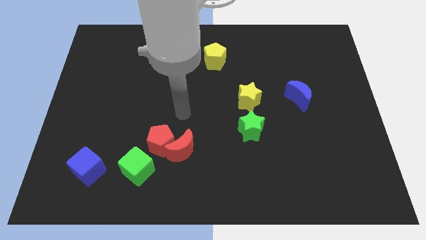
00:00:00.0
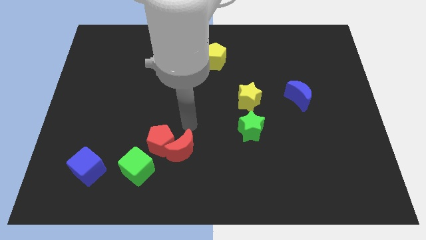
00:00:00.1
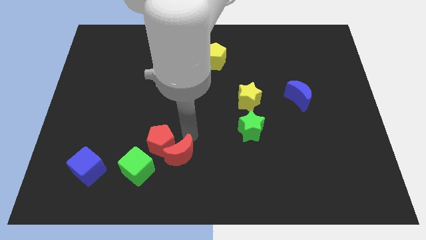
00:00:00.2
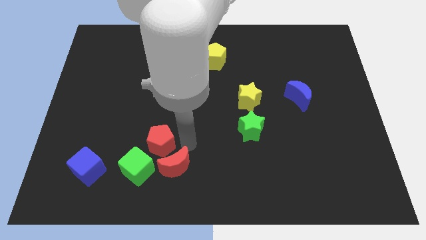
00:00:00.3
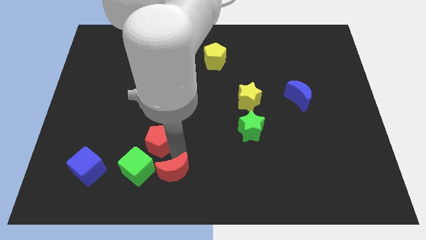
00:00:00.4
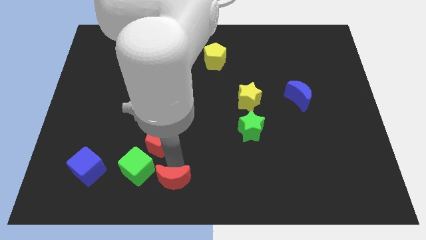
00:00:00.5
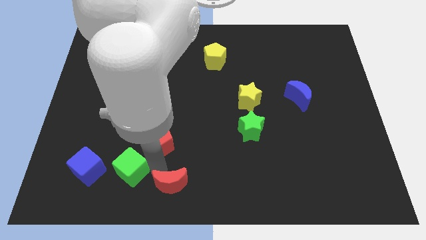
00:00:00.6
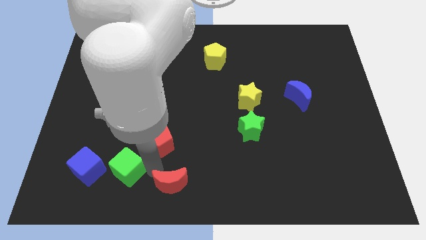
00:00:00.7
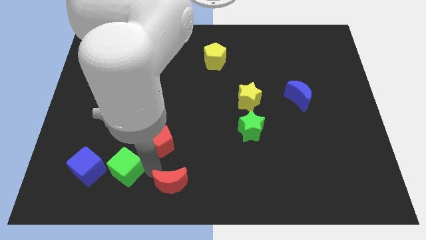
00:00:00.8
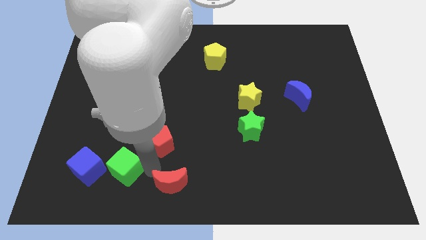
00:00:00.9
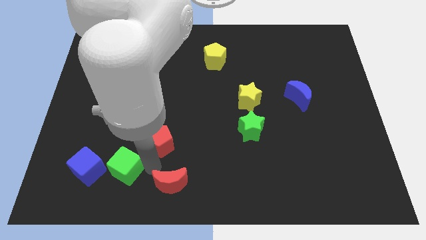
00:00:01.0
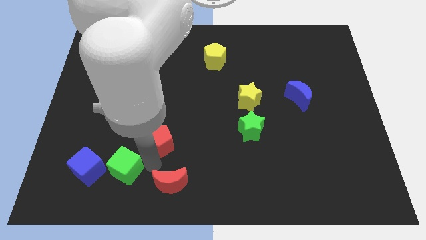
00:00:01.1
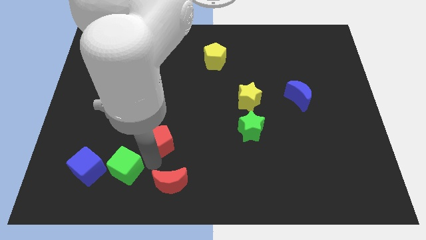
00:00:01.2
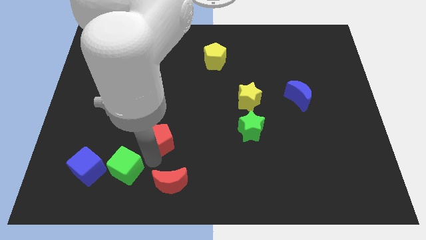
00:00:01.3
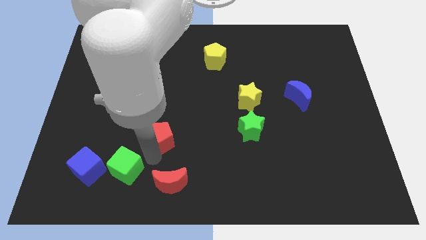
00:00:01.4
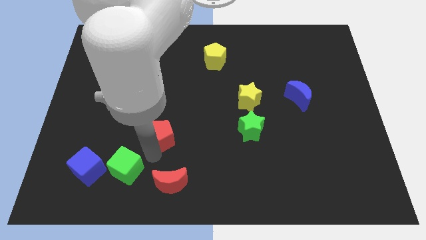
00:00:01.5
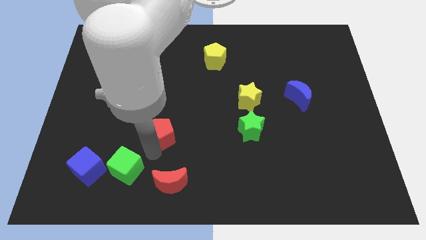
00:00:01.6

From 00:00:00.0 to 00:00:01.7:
pull the red pentagon apart from the red moon and green cube

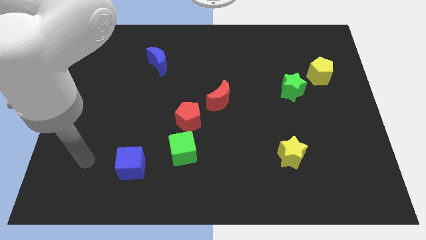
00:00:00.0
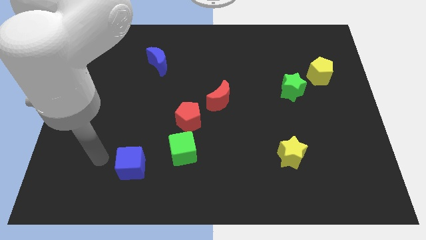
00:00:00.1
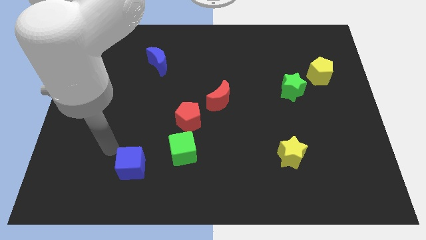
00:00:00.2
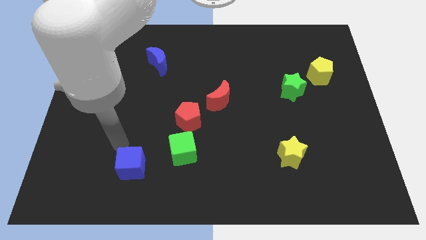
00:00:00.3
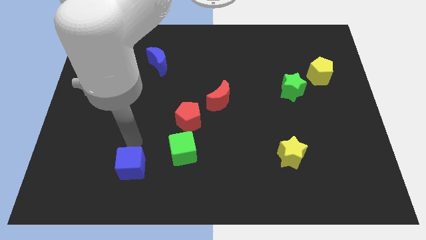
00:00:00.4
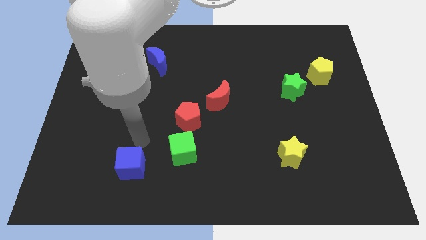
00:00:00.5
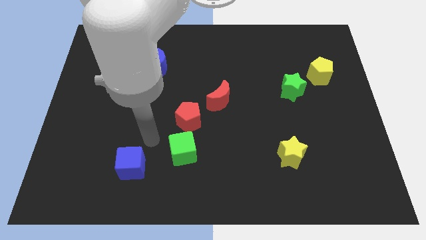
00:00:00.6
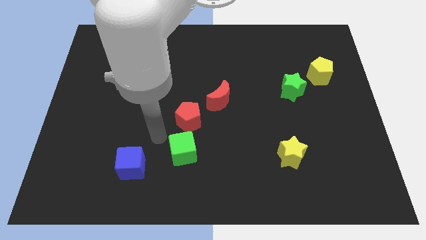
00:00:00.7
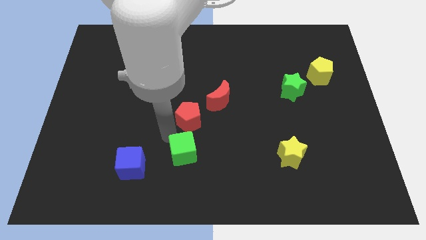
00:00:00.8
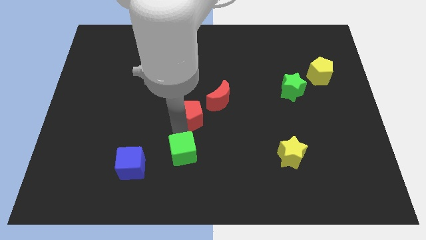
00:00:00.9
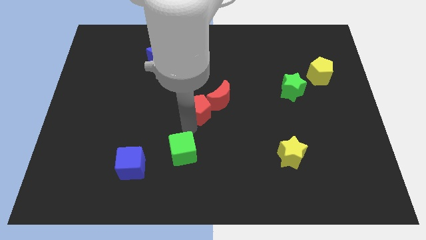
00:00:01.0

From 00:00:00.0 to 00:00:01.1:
pull the green cube apart from the red pentagon

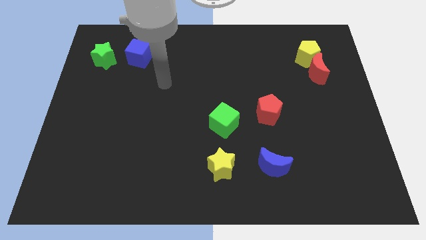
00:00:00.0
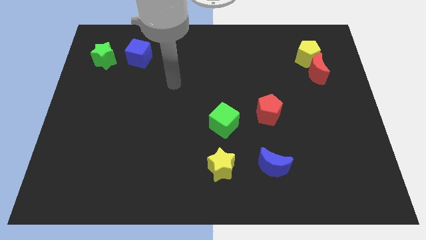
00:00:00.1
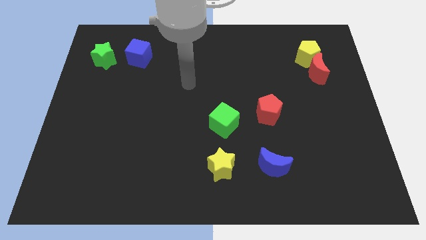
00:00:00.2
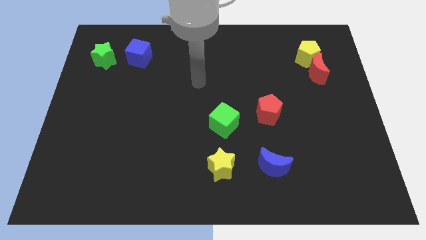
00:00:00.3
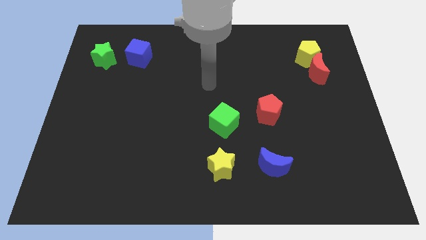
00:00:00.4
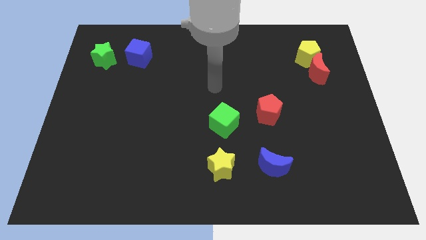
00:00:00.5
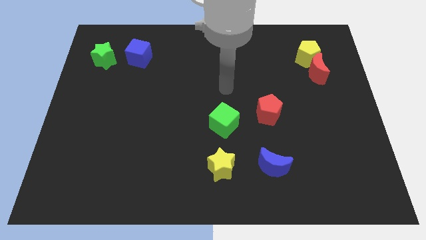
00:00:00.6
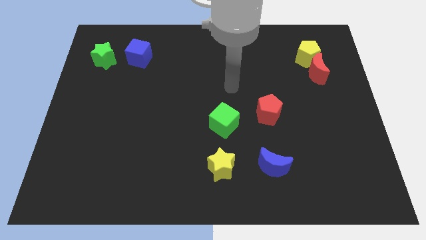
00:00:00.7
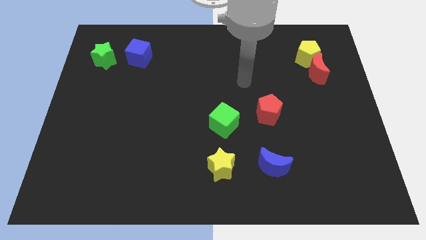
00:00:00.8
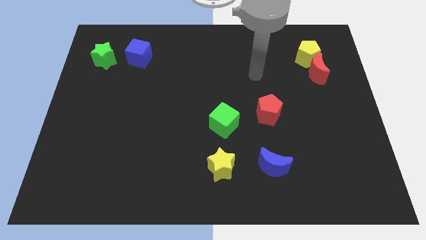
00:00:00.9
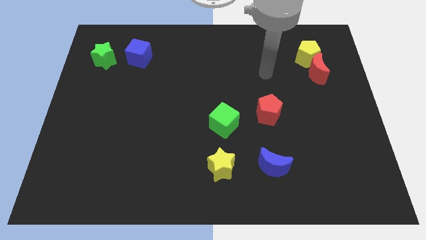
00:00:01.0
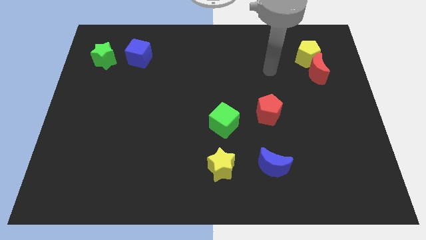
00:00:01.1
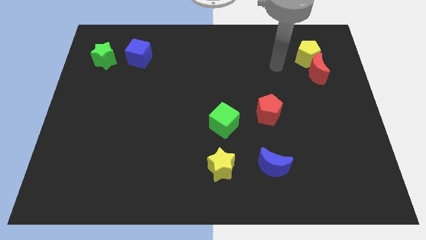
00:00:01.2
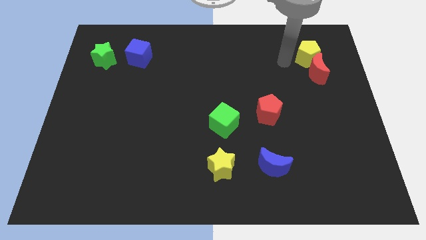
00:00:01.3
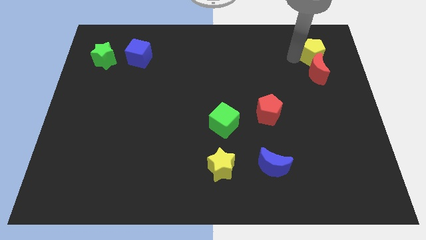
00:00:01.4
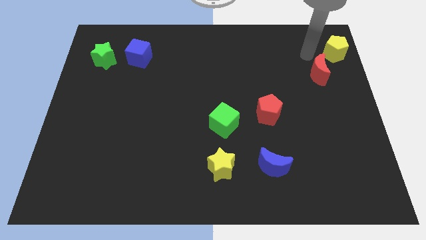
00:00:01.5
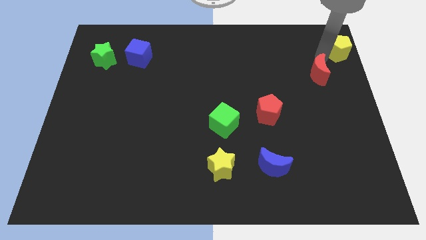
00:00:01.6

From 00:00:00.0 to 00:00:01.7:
pull the red moon apart from the yellow pentagon

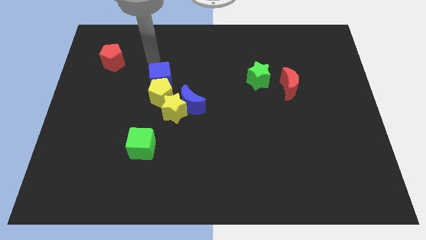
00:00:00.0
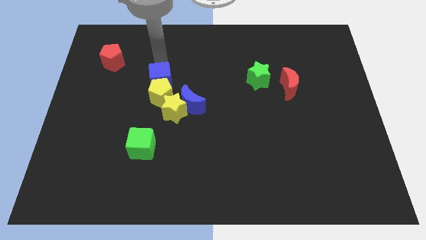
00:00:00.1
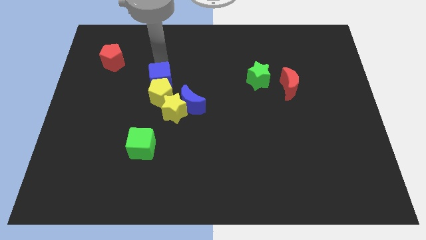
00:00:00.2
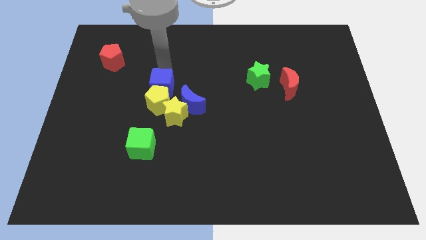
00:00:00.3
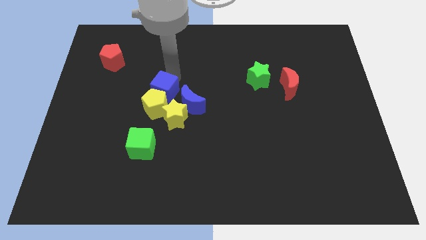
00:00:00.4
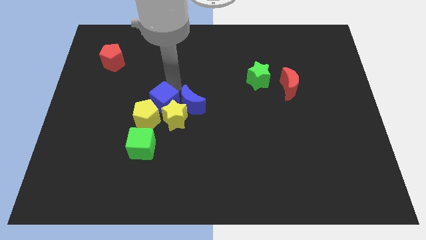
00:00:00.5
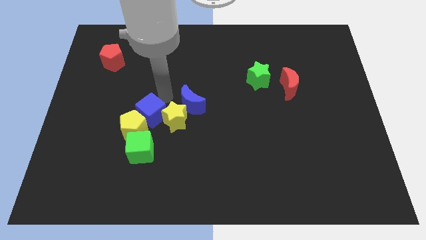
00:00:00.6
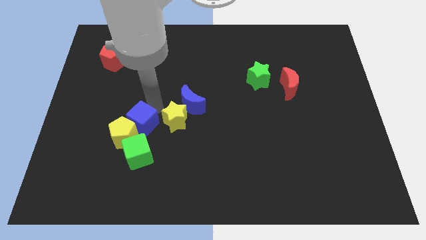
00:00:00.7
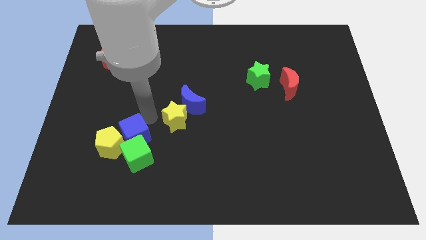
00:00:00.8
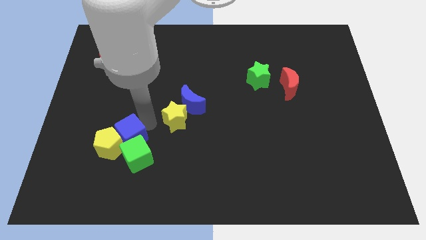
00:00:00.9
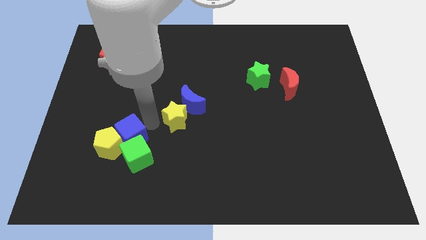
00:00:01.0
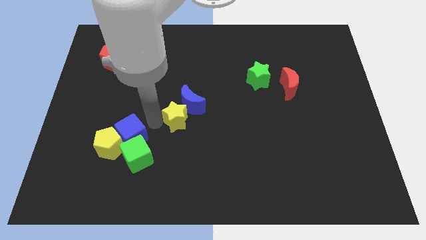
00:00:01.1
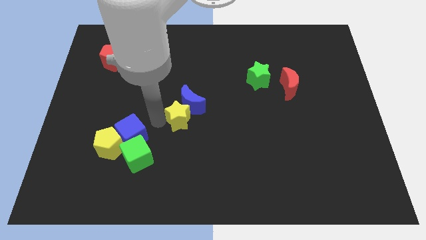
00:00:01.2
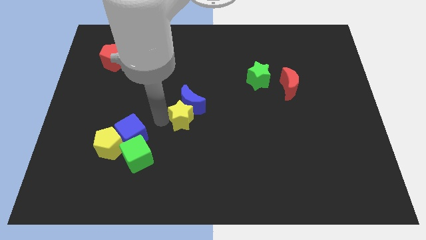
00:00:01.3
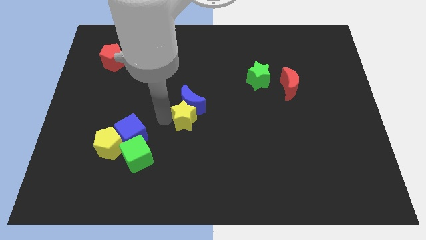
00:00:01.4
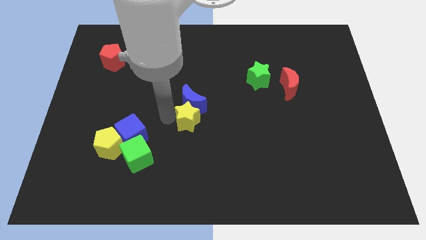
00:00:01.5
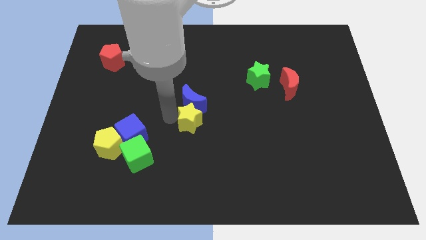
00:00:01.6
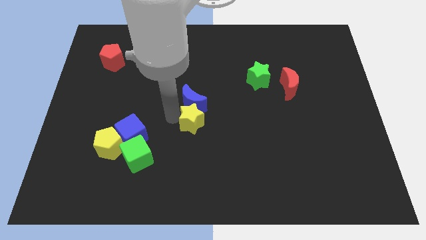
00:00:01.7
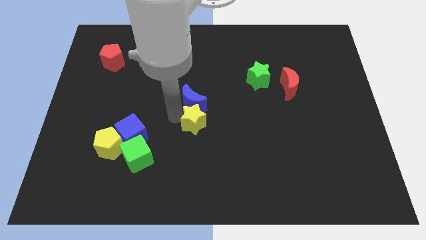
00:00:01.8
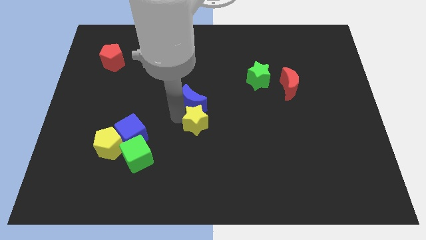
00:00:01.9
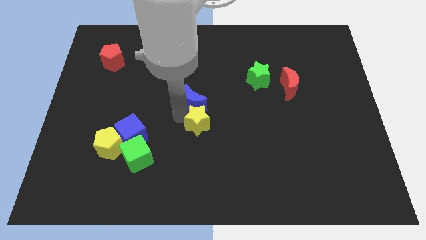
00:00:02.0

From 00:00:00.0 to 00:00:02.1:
move the yellow star away from the blue moon and yellow pentagon

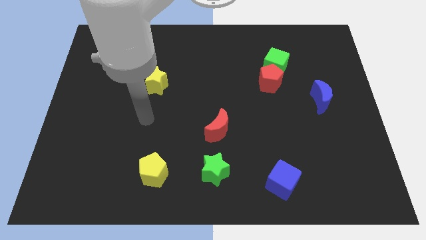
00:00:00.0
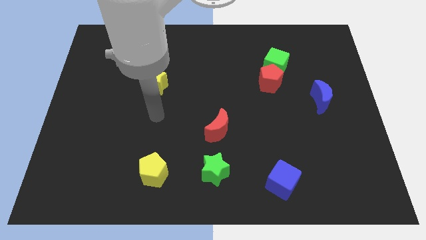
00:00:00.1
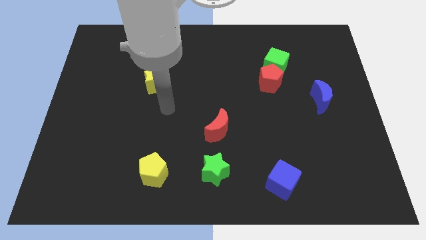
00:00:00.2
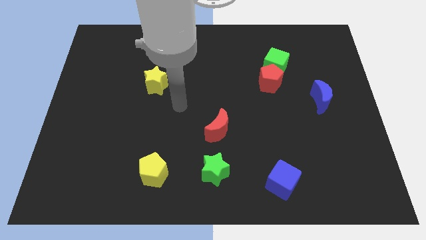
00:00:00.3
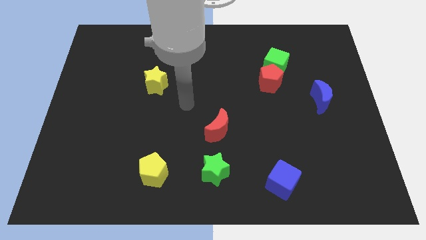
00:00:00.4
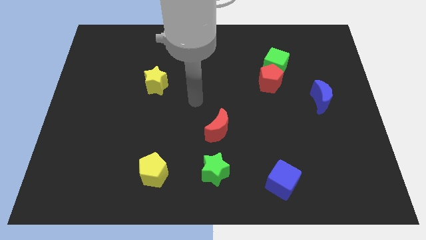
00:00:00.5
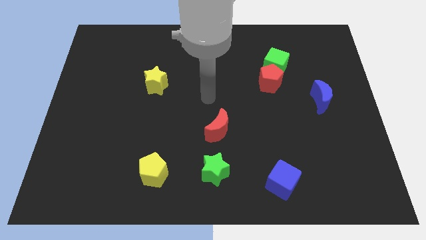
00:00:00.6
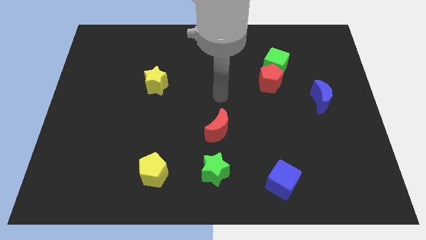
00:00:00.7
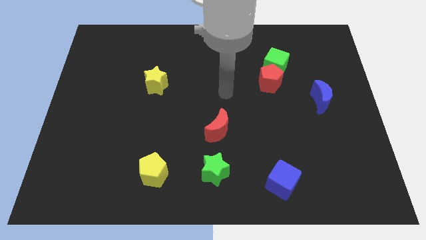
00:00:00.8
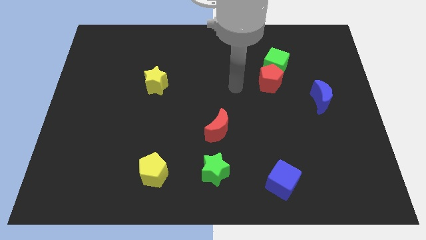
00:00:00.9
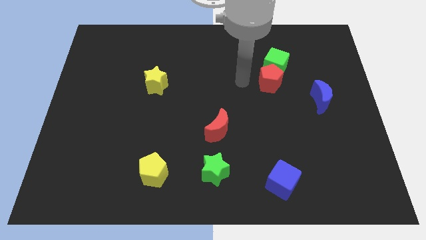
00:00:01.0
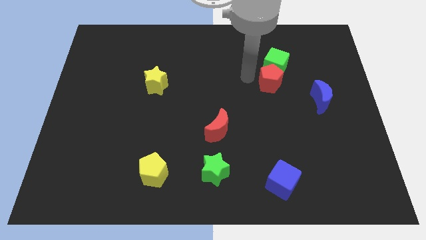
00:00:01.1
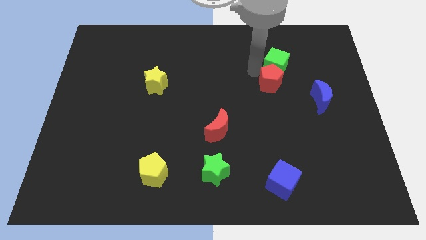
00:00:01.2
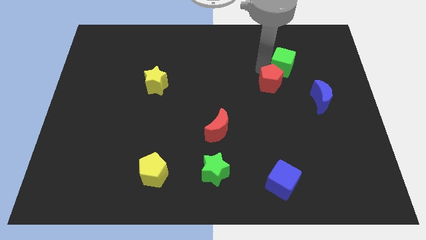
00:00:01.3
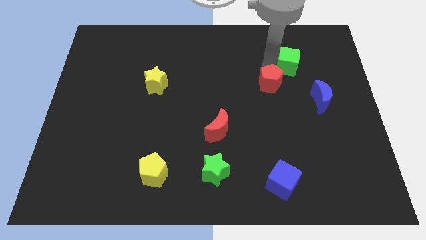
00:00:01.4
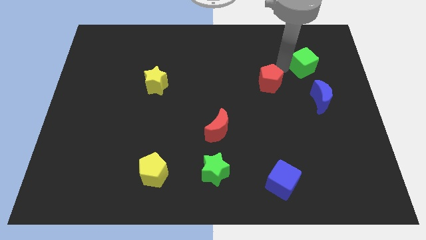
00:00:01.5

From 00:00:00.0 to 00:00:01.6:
move the red pentagon away from the green cube

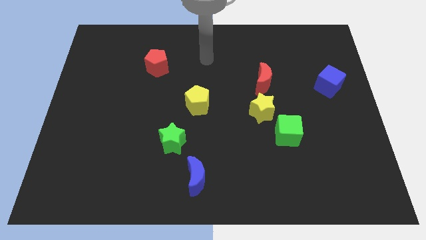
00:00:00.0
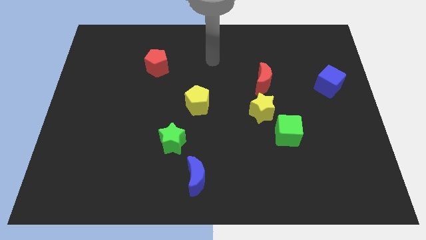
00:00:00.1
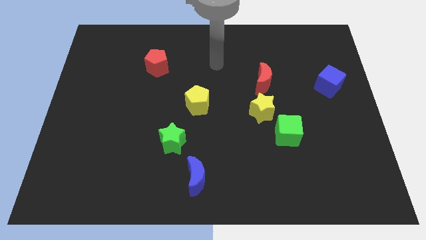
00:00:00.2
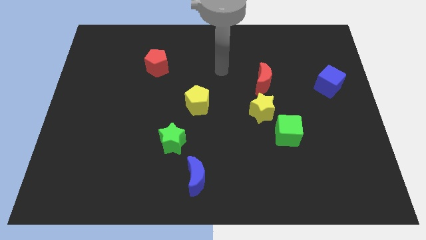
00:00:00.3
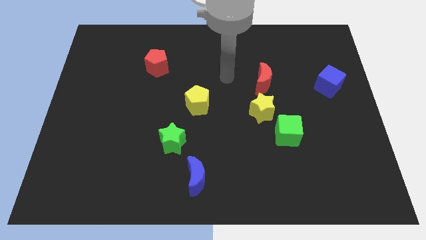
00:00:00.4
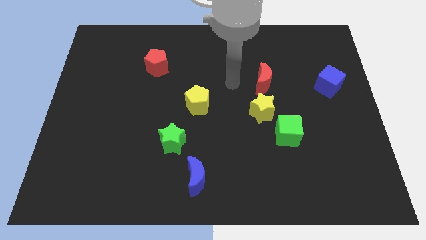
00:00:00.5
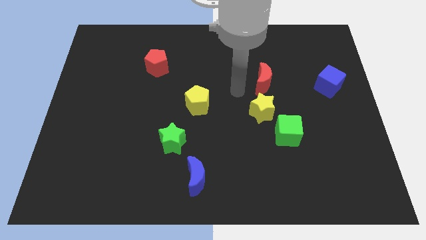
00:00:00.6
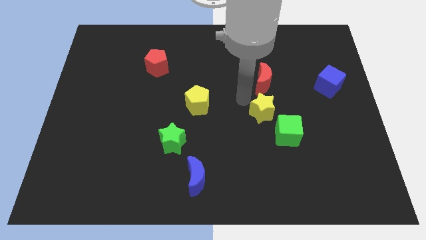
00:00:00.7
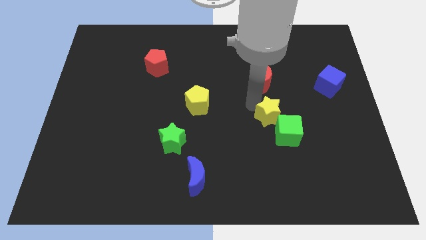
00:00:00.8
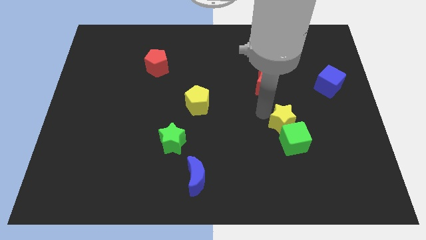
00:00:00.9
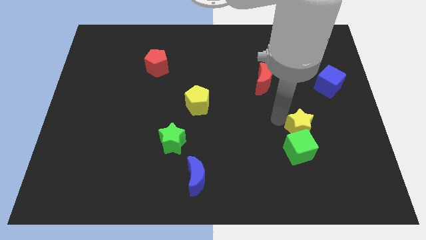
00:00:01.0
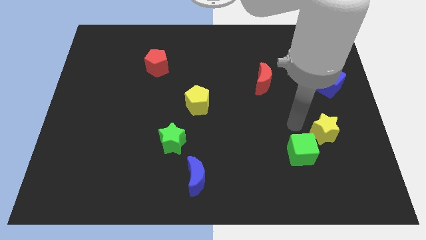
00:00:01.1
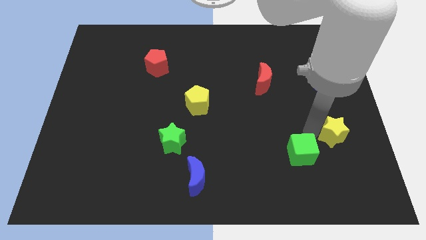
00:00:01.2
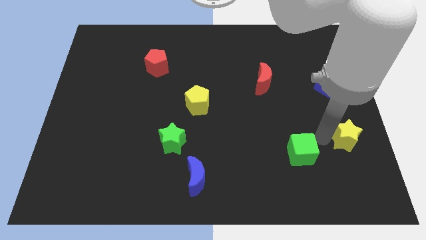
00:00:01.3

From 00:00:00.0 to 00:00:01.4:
pull the green cube apart from the yellow star
